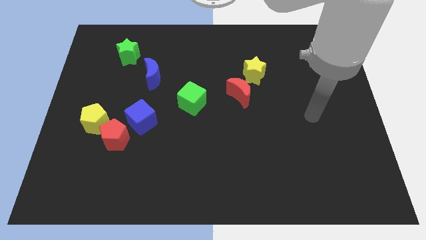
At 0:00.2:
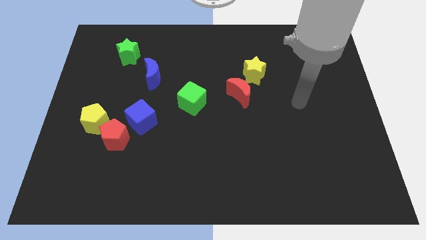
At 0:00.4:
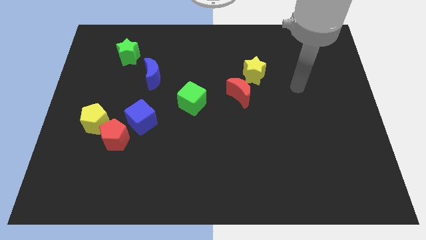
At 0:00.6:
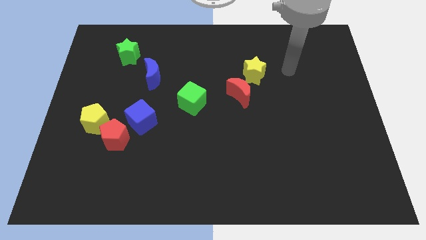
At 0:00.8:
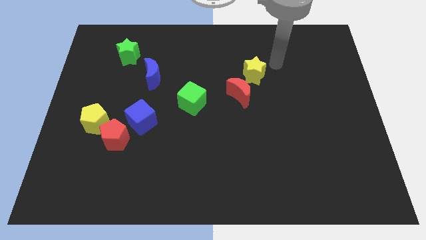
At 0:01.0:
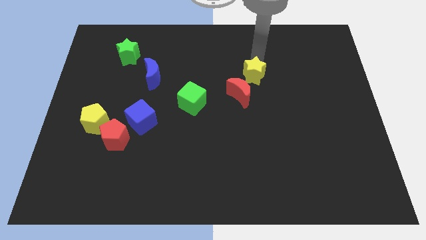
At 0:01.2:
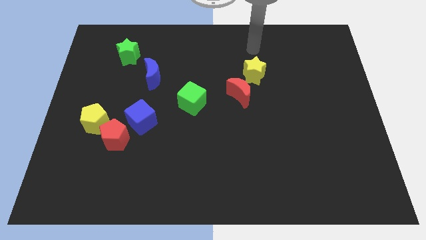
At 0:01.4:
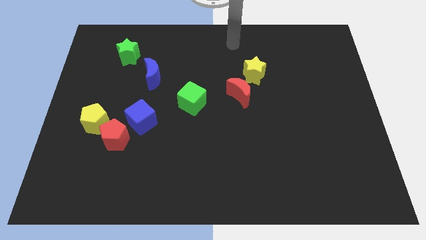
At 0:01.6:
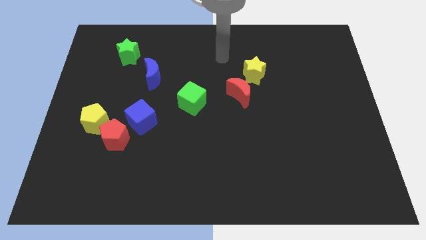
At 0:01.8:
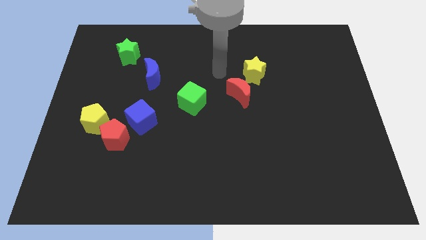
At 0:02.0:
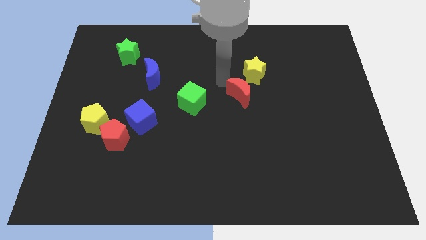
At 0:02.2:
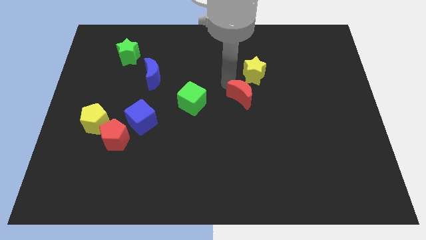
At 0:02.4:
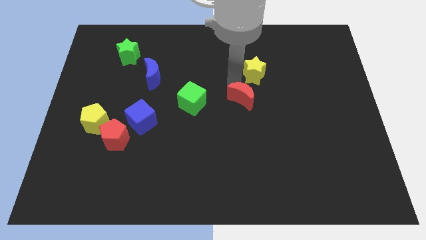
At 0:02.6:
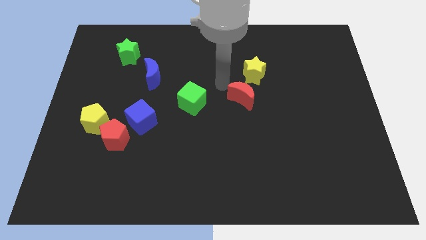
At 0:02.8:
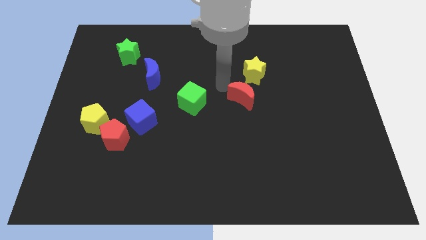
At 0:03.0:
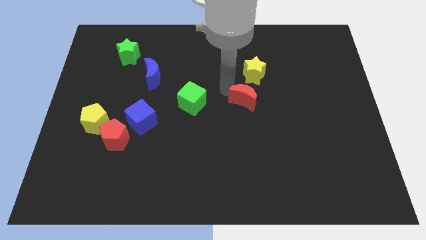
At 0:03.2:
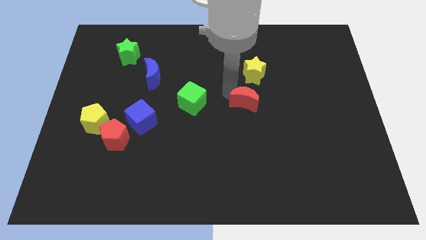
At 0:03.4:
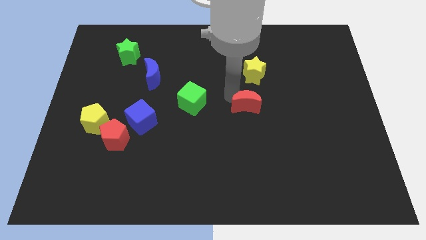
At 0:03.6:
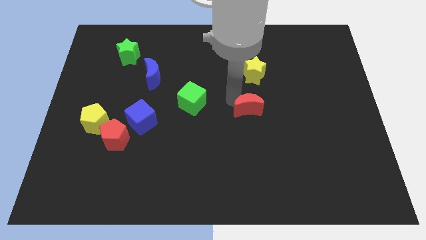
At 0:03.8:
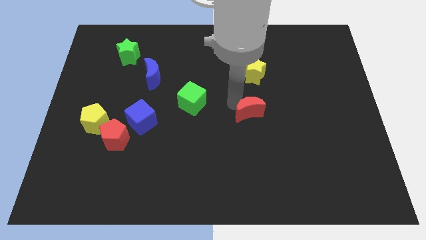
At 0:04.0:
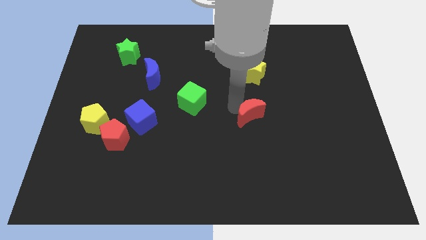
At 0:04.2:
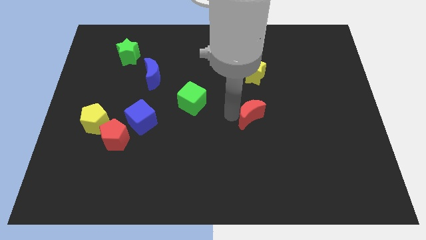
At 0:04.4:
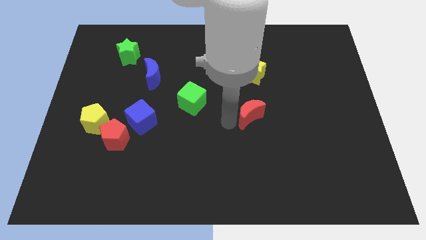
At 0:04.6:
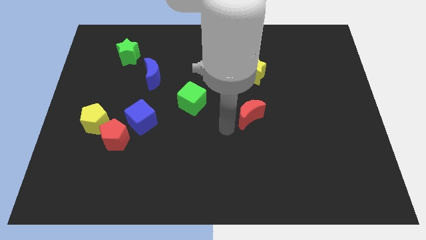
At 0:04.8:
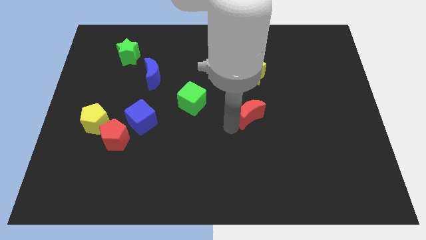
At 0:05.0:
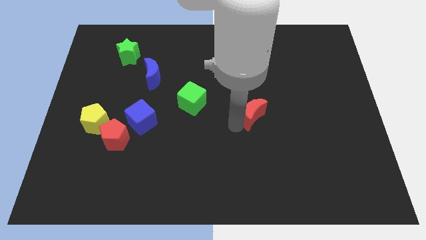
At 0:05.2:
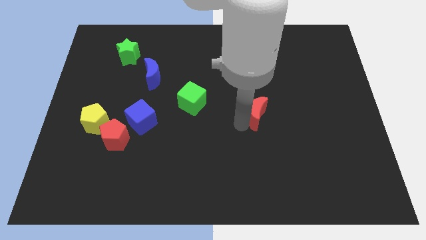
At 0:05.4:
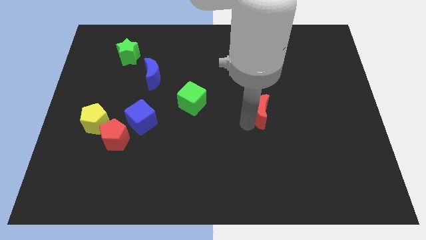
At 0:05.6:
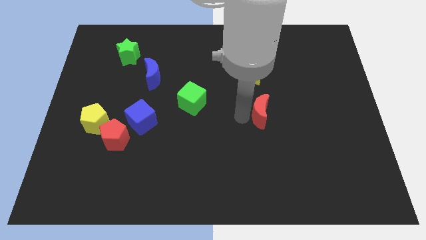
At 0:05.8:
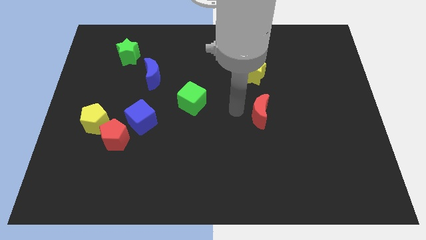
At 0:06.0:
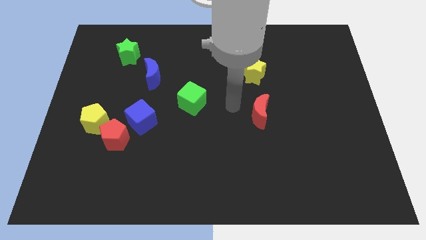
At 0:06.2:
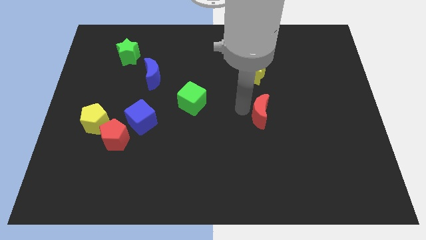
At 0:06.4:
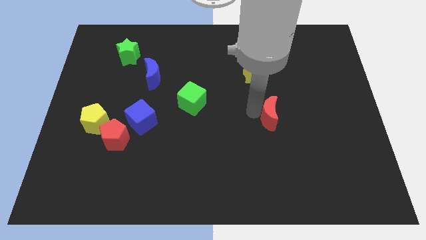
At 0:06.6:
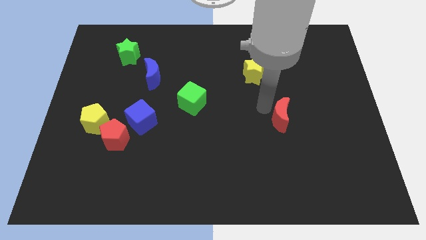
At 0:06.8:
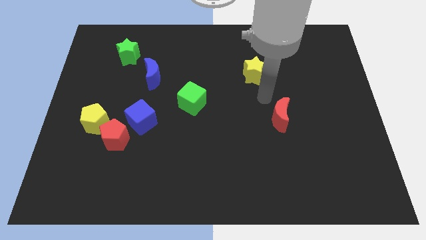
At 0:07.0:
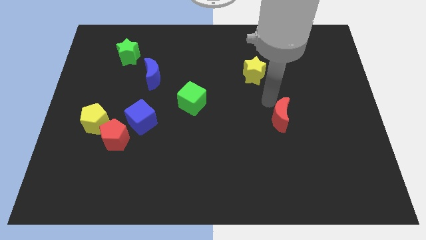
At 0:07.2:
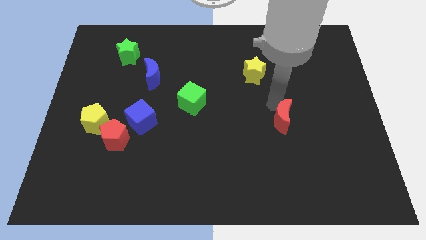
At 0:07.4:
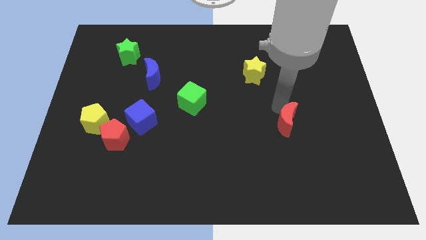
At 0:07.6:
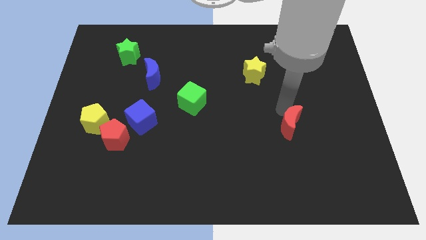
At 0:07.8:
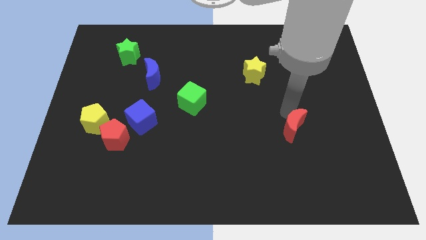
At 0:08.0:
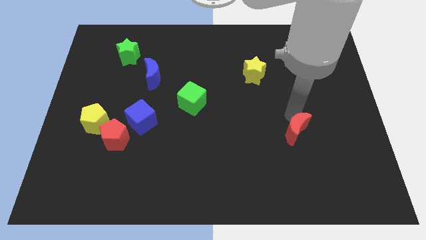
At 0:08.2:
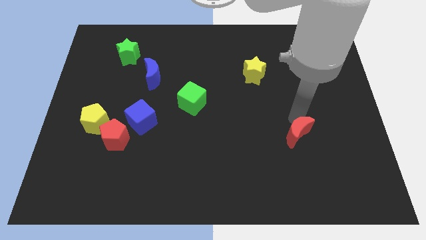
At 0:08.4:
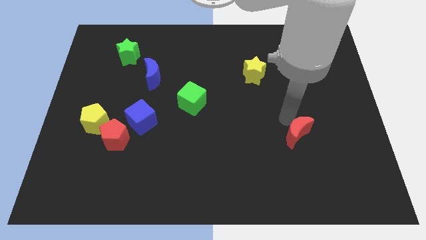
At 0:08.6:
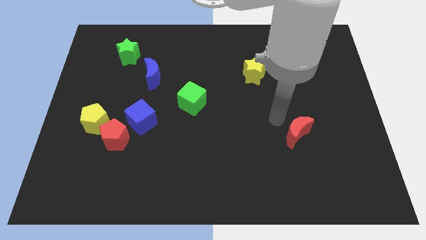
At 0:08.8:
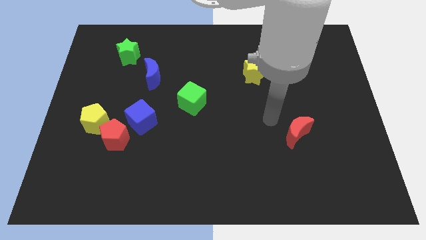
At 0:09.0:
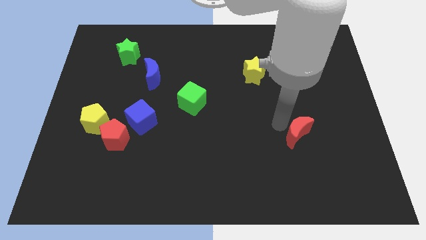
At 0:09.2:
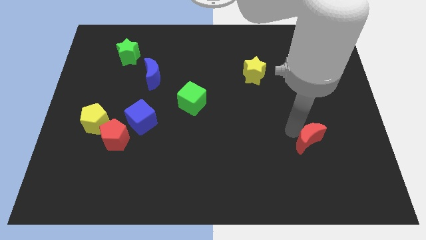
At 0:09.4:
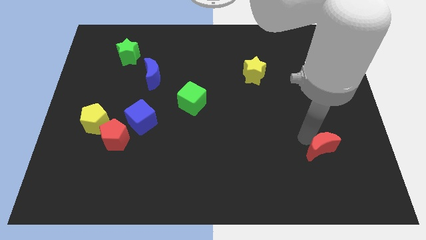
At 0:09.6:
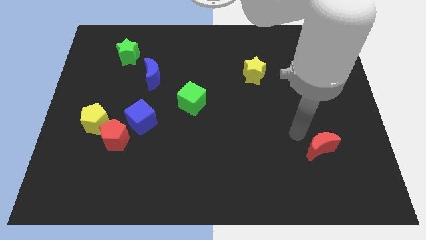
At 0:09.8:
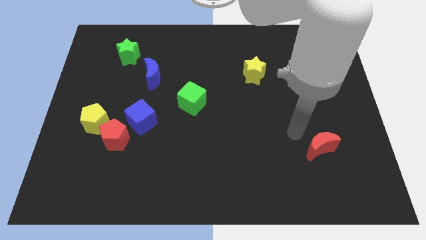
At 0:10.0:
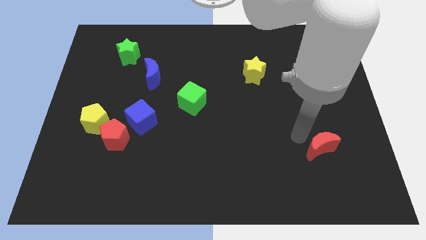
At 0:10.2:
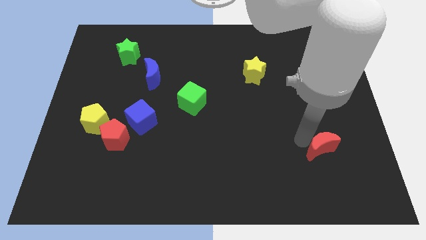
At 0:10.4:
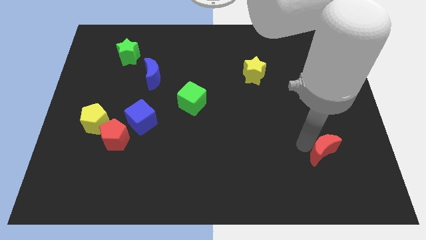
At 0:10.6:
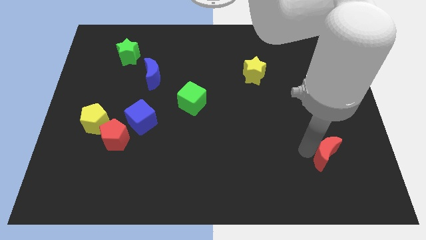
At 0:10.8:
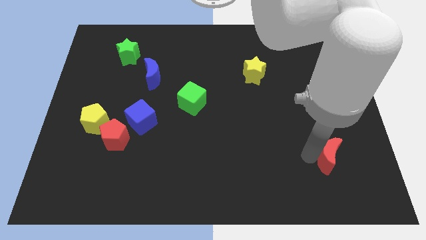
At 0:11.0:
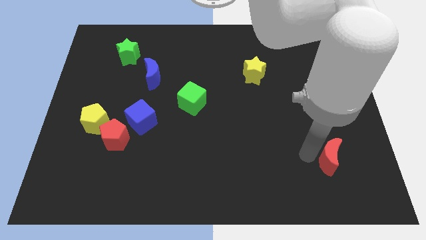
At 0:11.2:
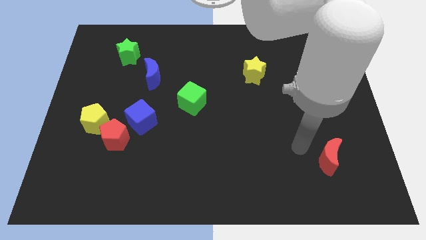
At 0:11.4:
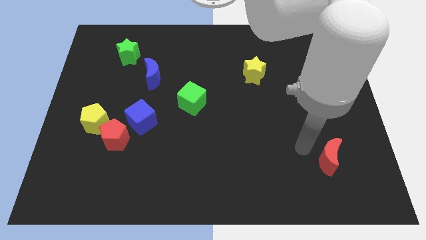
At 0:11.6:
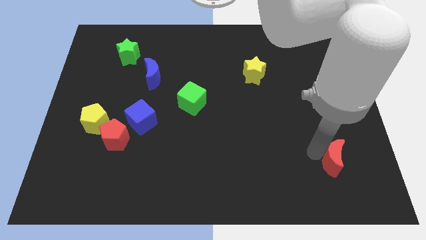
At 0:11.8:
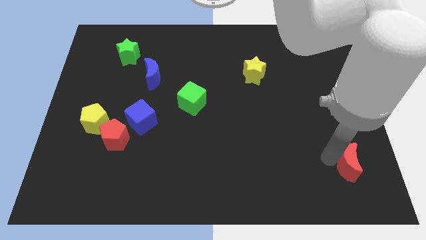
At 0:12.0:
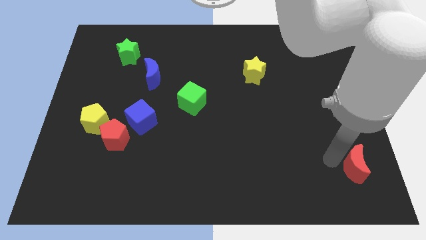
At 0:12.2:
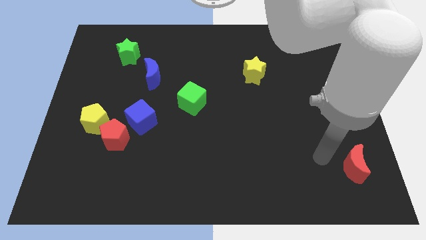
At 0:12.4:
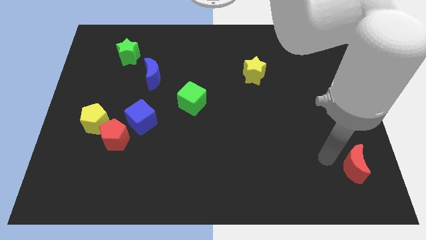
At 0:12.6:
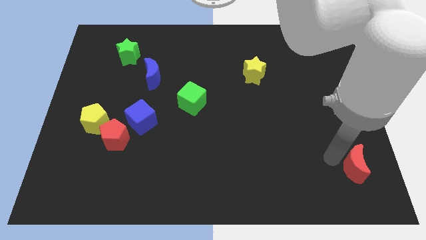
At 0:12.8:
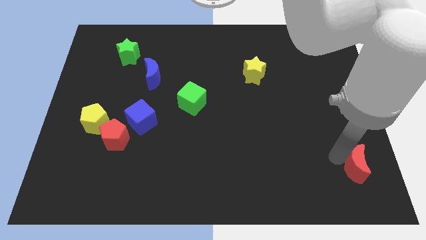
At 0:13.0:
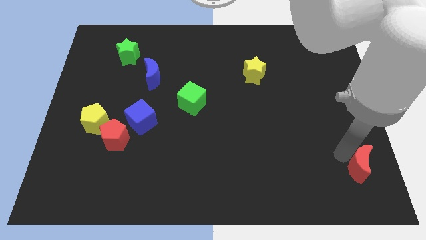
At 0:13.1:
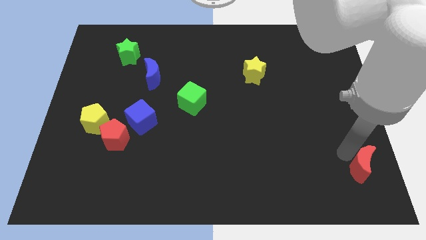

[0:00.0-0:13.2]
slide the red moon to the bottom right corner
